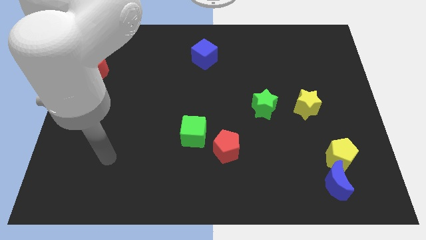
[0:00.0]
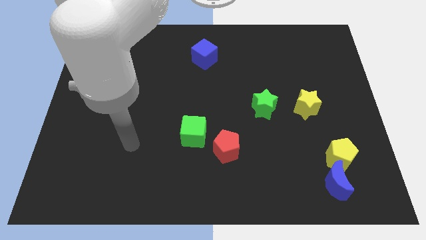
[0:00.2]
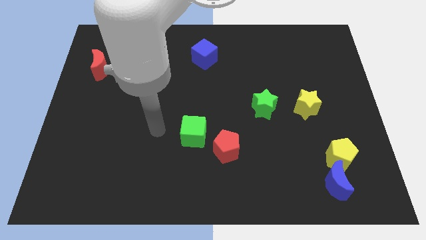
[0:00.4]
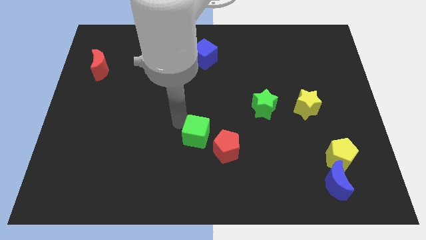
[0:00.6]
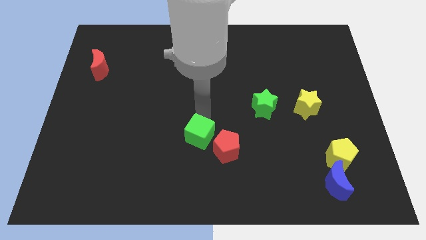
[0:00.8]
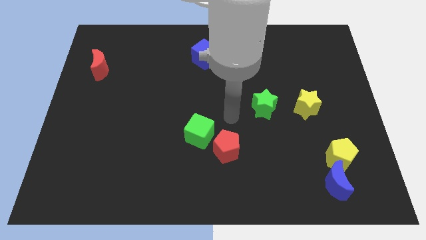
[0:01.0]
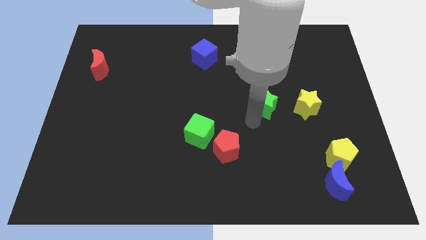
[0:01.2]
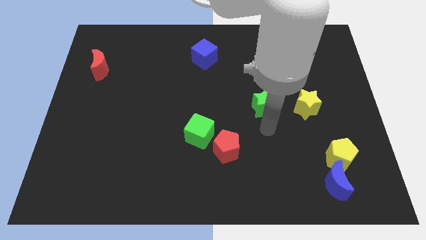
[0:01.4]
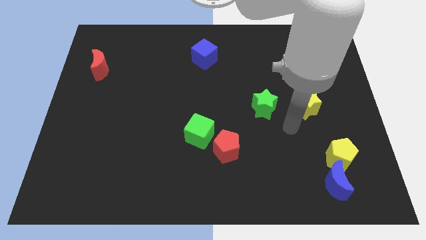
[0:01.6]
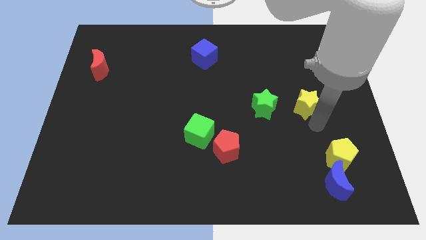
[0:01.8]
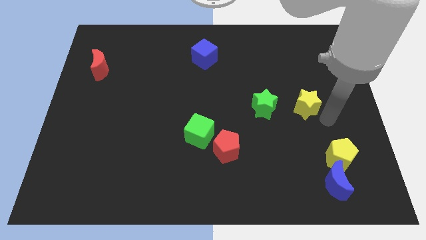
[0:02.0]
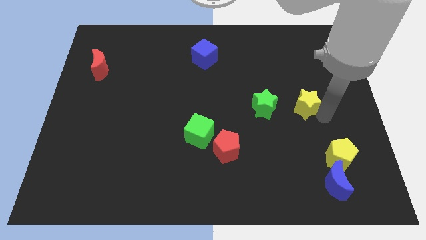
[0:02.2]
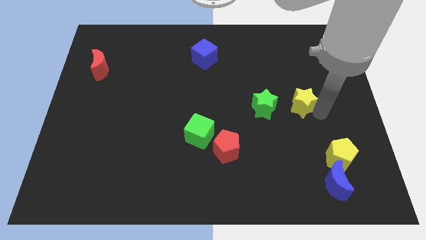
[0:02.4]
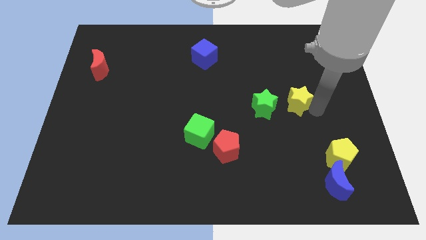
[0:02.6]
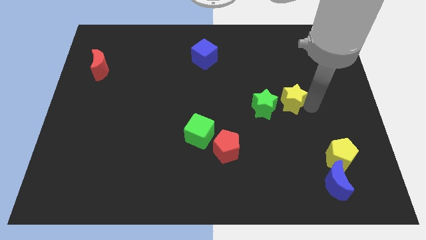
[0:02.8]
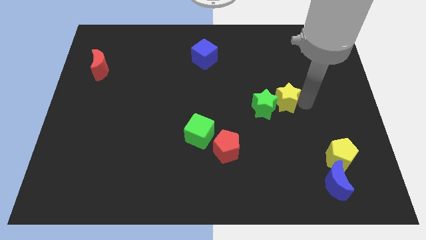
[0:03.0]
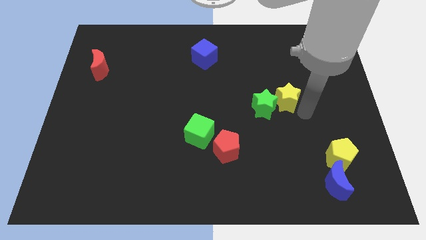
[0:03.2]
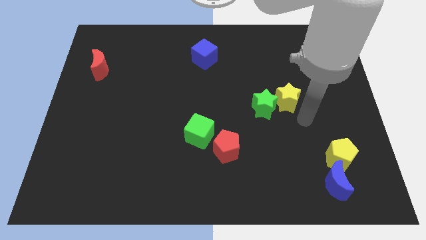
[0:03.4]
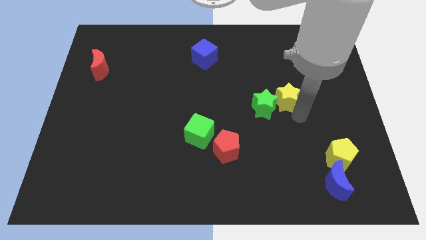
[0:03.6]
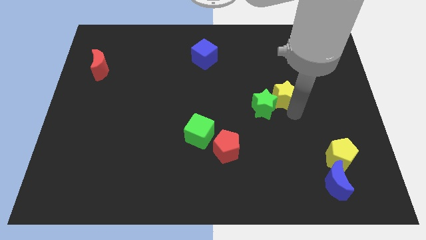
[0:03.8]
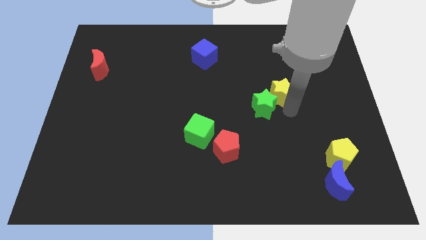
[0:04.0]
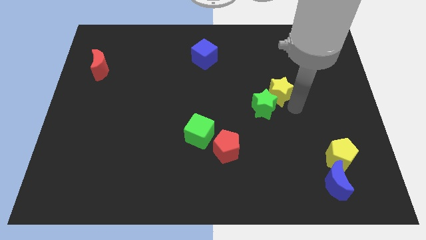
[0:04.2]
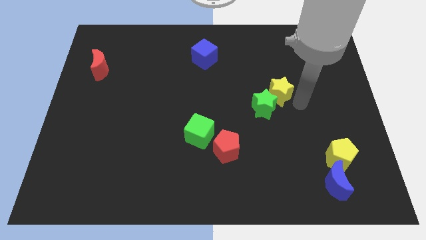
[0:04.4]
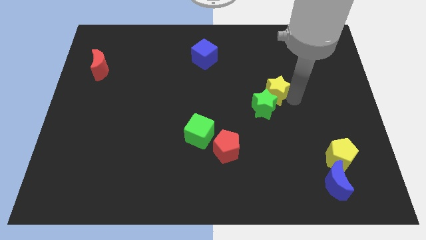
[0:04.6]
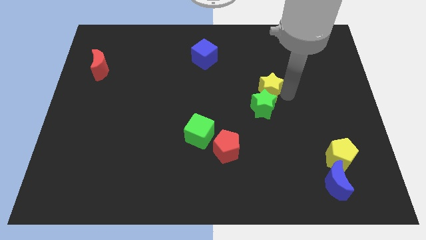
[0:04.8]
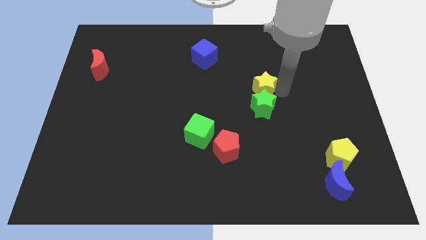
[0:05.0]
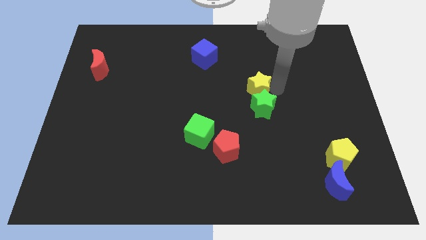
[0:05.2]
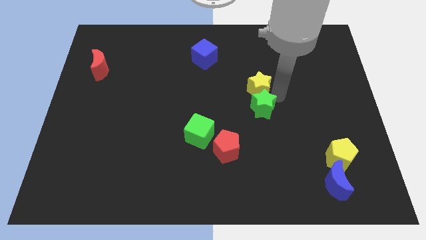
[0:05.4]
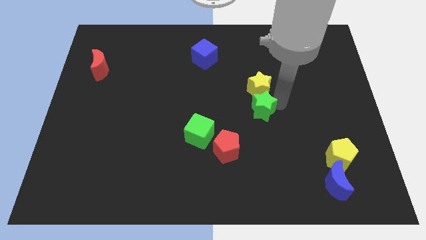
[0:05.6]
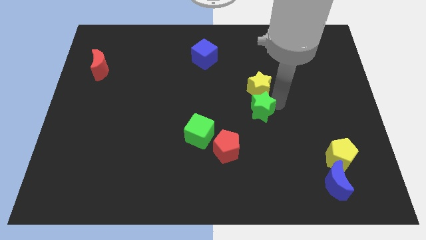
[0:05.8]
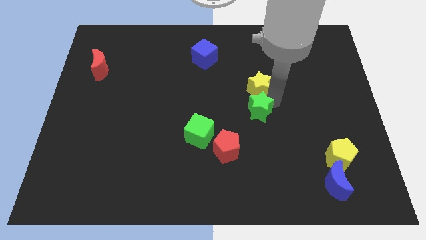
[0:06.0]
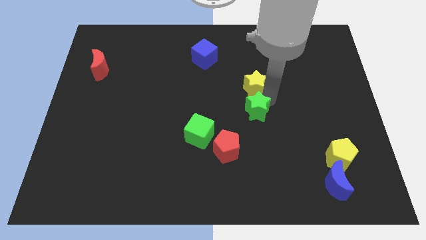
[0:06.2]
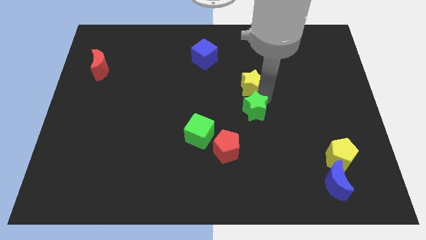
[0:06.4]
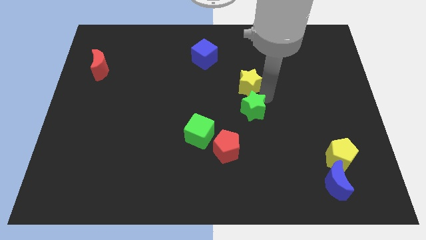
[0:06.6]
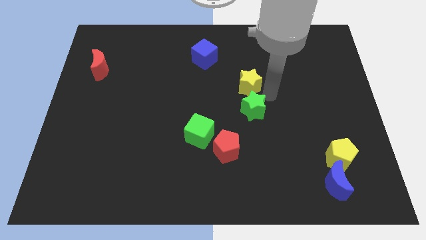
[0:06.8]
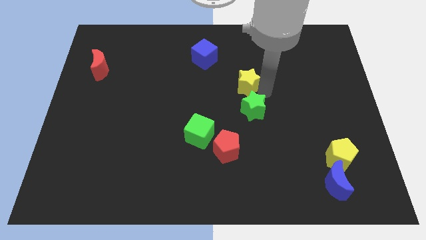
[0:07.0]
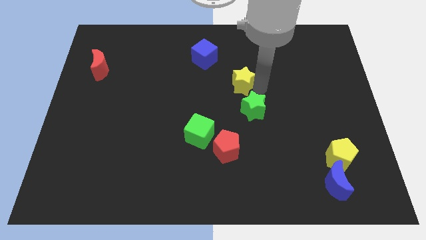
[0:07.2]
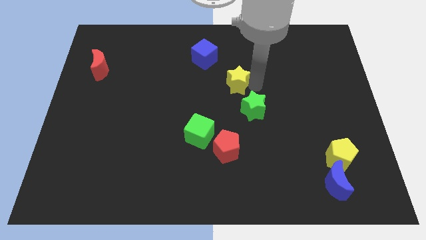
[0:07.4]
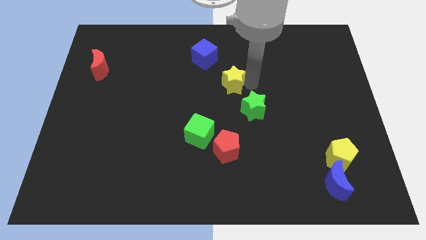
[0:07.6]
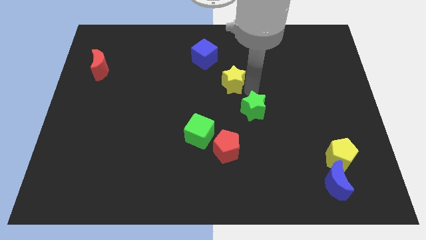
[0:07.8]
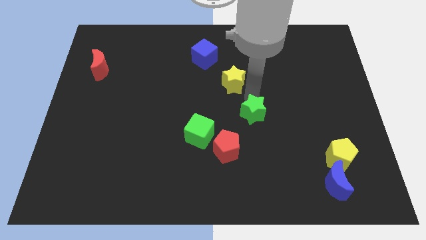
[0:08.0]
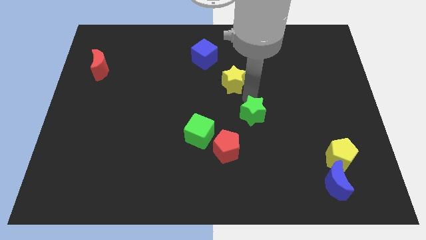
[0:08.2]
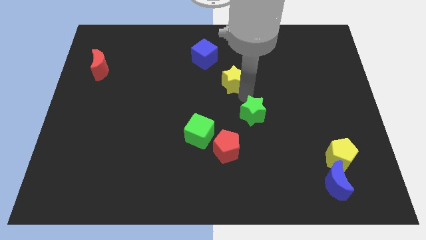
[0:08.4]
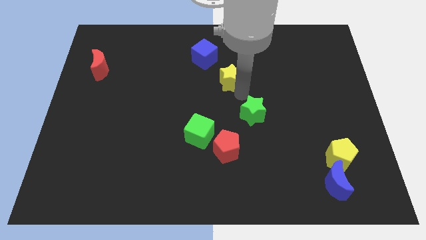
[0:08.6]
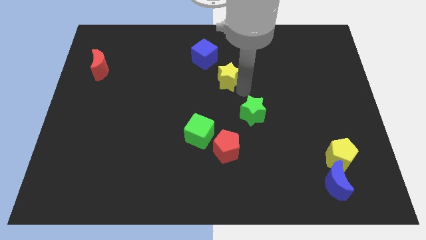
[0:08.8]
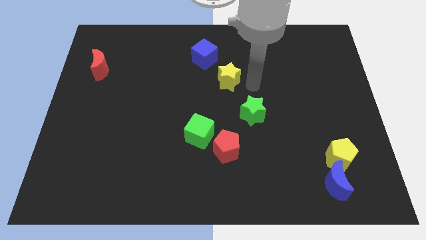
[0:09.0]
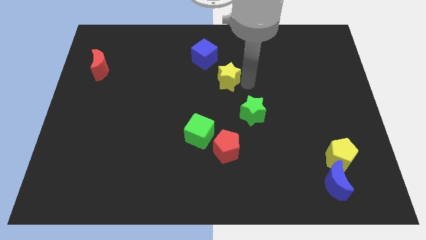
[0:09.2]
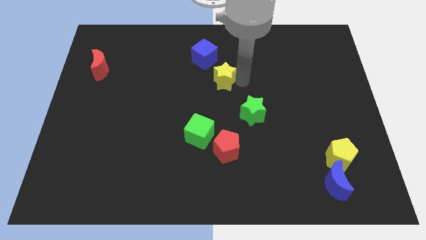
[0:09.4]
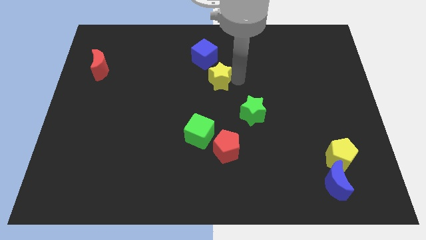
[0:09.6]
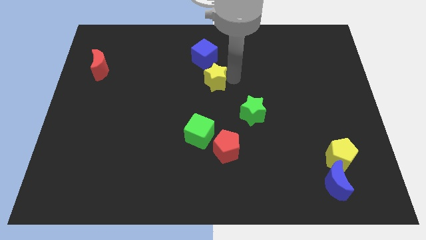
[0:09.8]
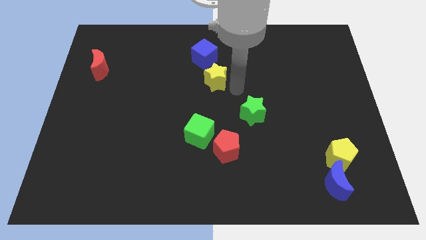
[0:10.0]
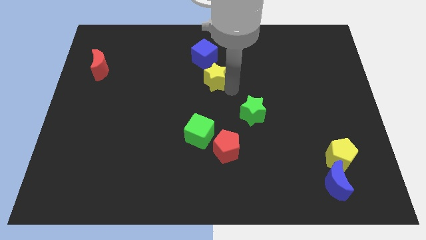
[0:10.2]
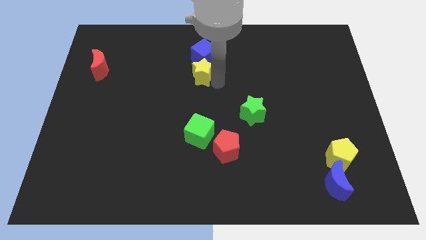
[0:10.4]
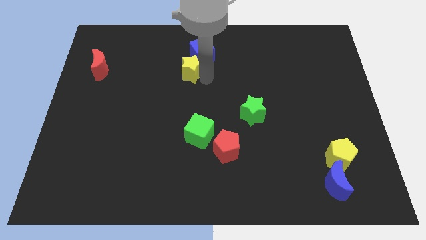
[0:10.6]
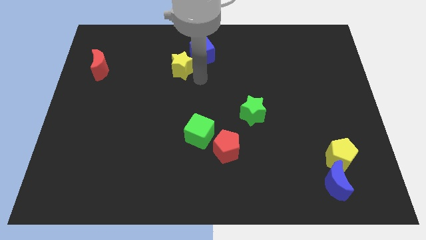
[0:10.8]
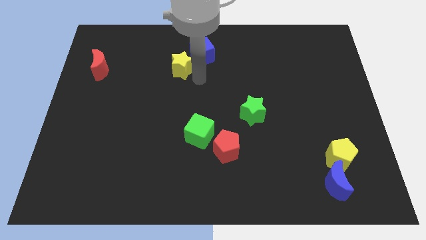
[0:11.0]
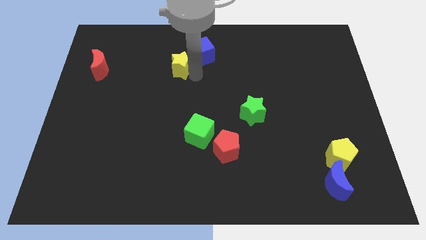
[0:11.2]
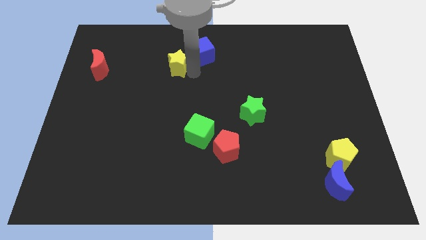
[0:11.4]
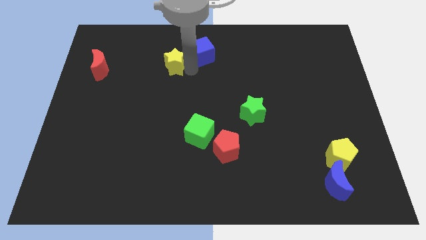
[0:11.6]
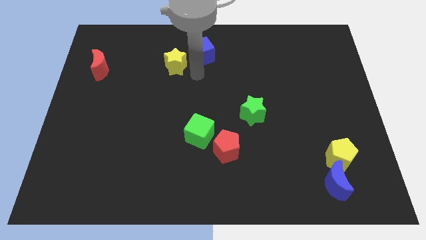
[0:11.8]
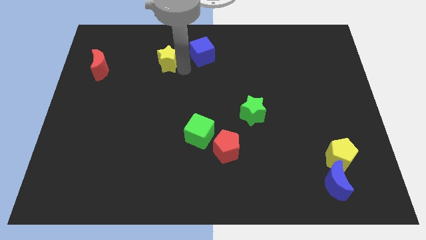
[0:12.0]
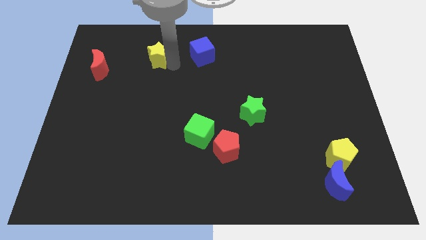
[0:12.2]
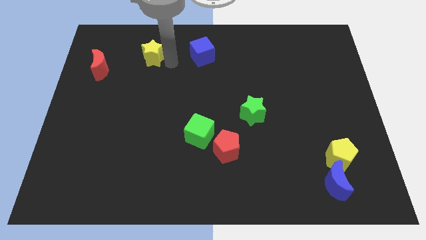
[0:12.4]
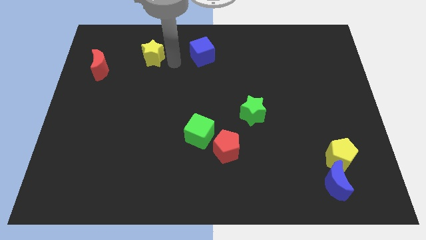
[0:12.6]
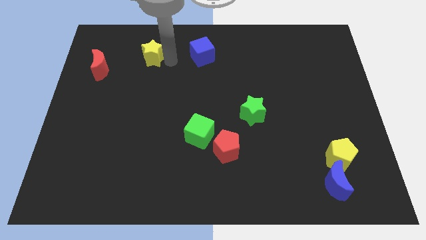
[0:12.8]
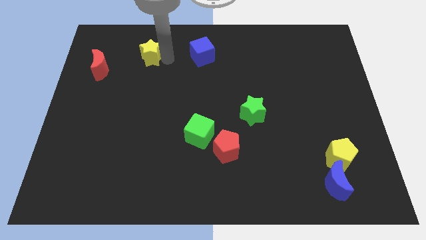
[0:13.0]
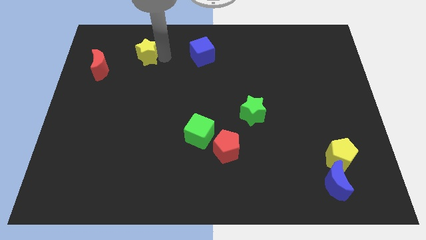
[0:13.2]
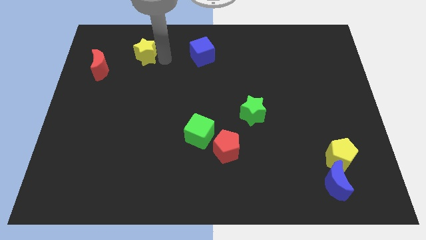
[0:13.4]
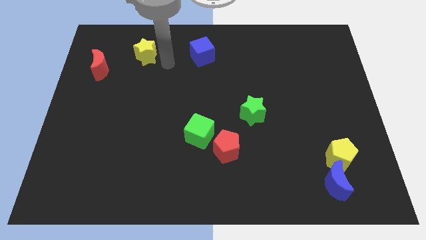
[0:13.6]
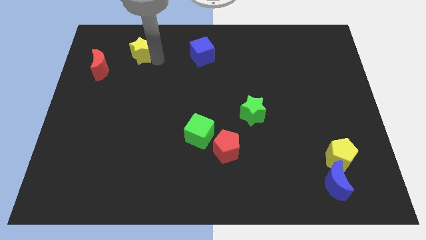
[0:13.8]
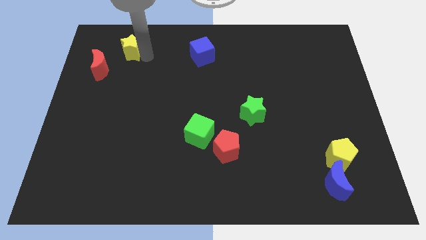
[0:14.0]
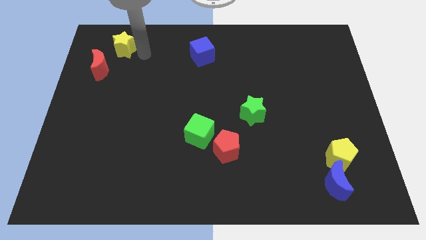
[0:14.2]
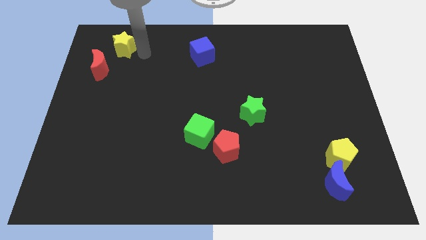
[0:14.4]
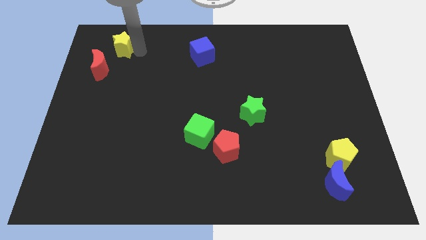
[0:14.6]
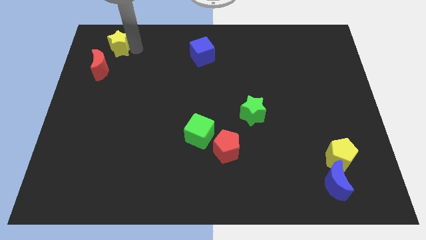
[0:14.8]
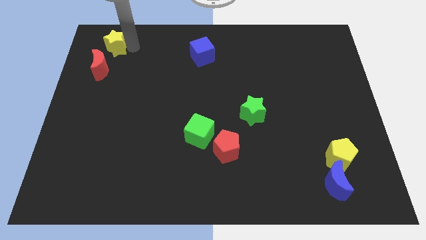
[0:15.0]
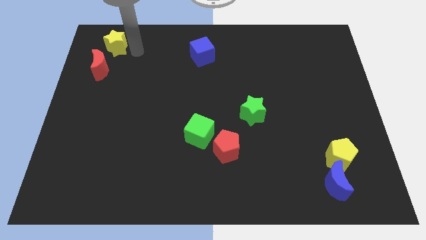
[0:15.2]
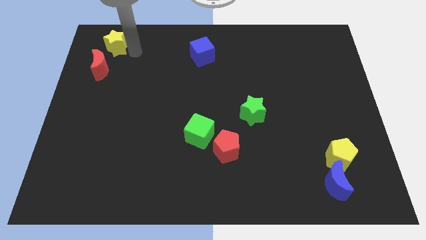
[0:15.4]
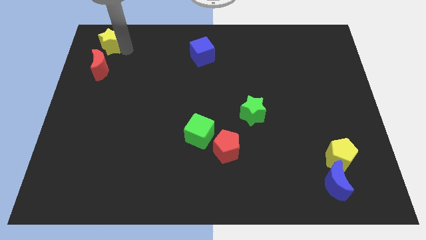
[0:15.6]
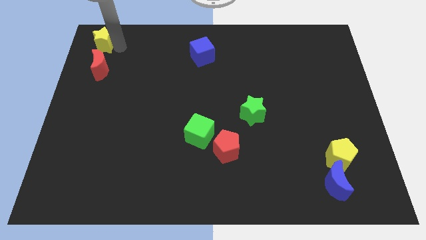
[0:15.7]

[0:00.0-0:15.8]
push the yellow star to the top left of the board
